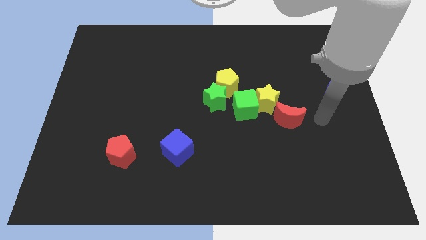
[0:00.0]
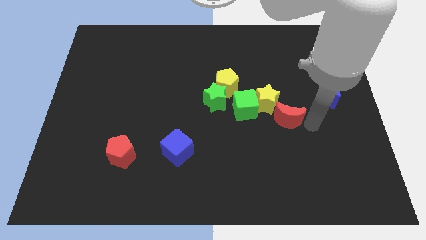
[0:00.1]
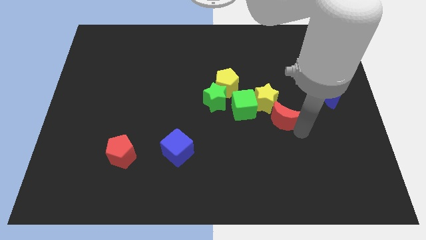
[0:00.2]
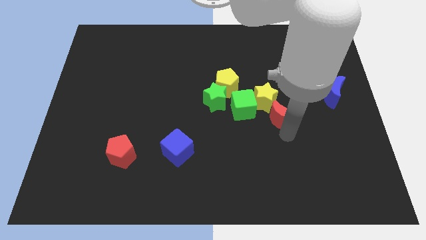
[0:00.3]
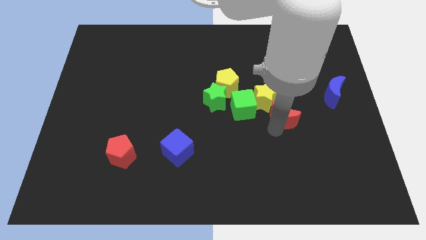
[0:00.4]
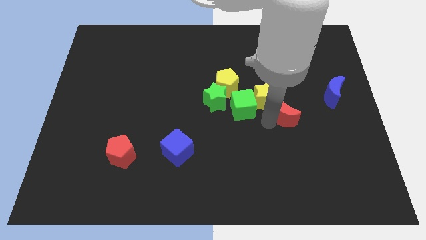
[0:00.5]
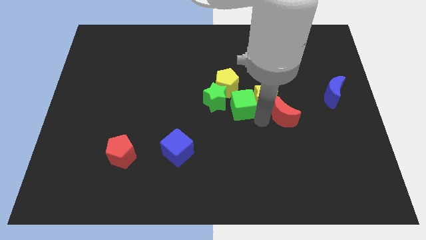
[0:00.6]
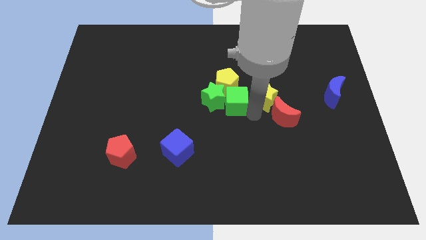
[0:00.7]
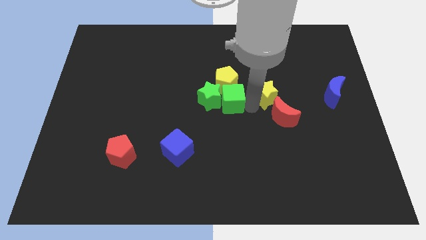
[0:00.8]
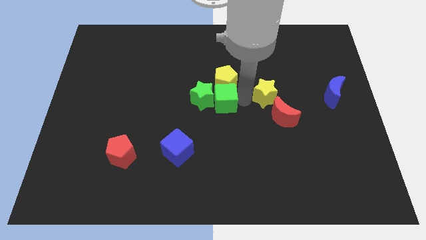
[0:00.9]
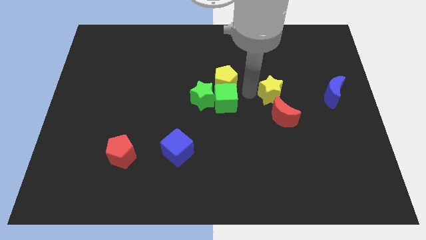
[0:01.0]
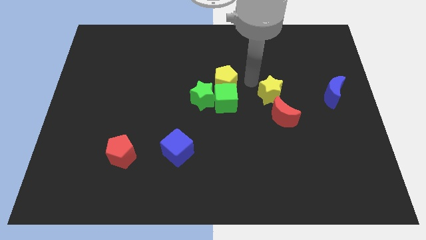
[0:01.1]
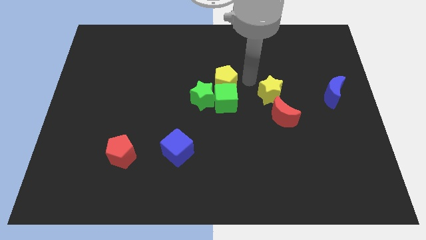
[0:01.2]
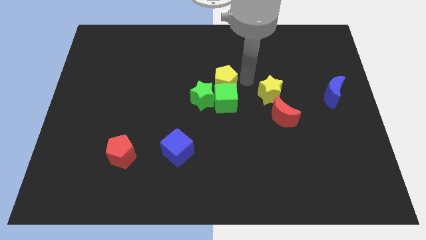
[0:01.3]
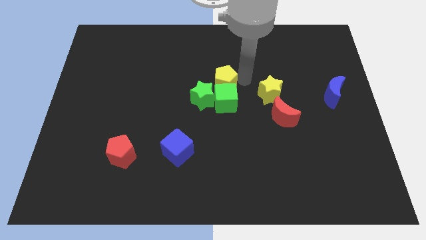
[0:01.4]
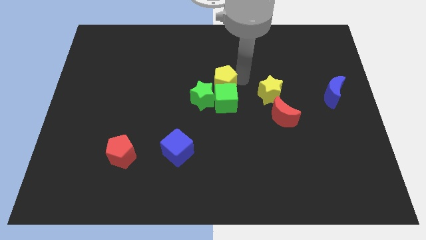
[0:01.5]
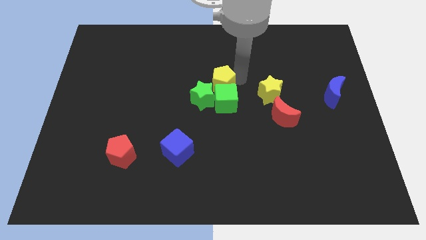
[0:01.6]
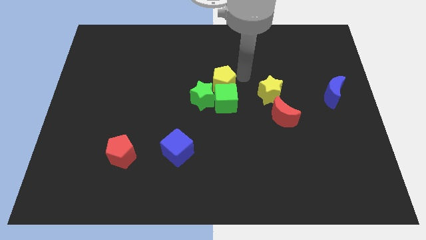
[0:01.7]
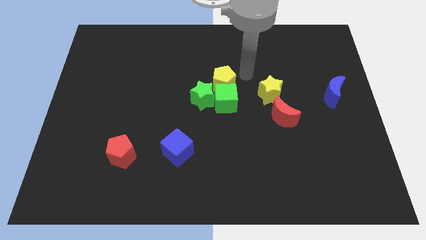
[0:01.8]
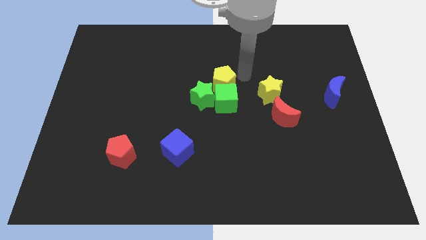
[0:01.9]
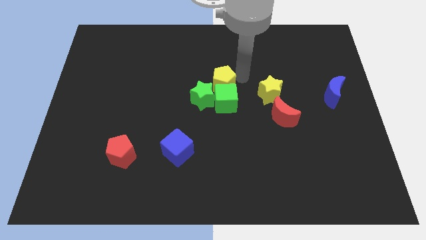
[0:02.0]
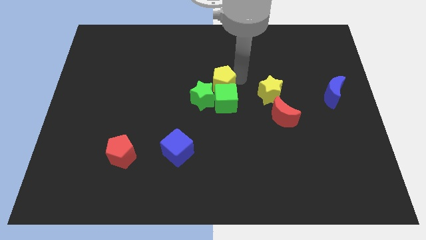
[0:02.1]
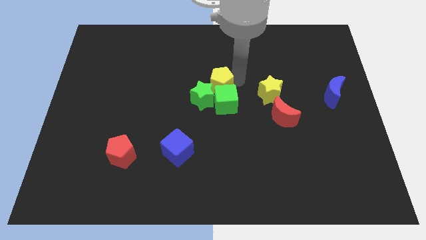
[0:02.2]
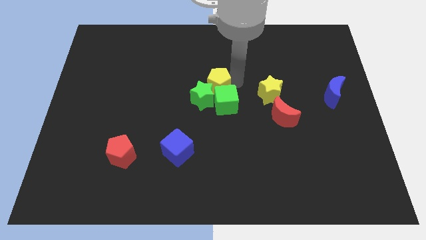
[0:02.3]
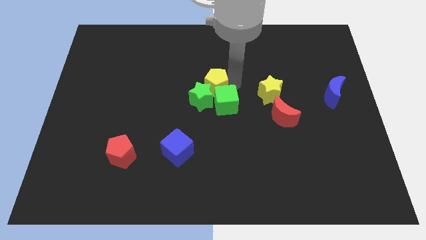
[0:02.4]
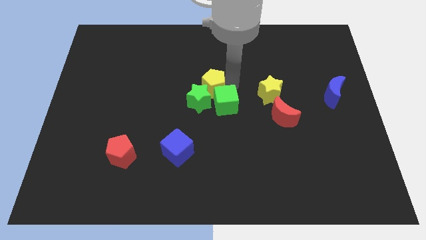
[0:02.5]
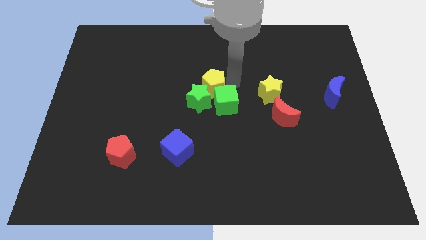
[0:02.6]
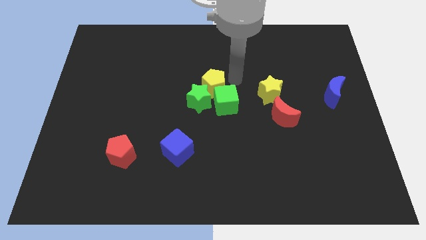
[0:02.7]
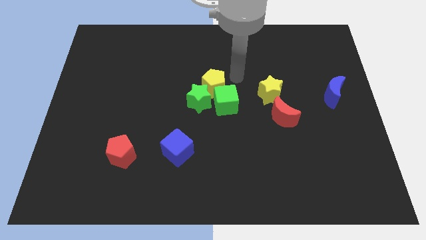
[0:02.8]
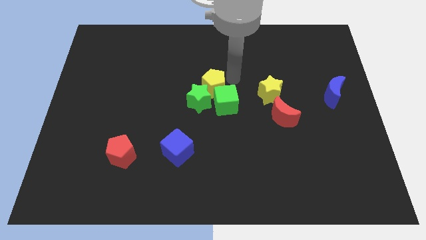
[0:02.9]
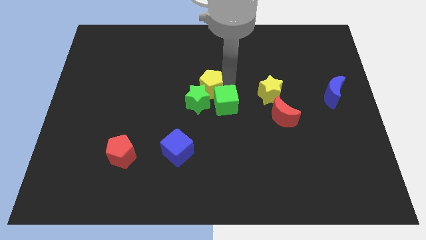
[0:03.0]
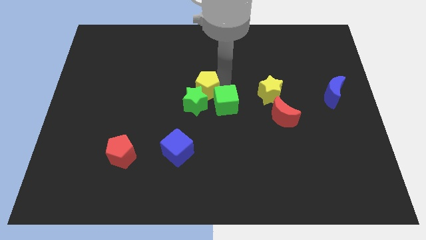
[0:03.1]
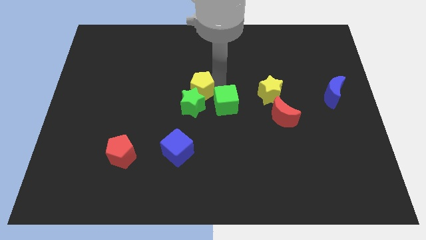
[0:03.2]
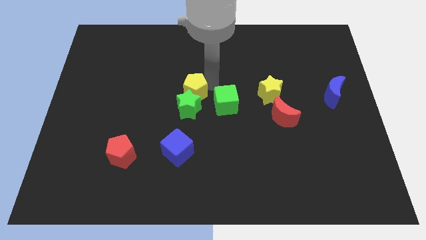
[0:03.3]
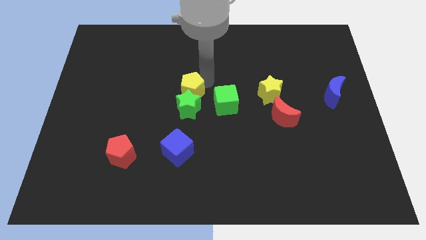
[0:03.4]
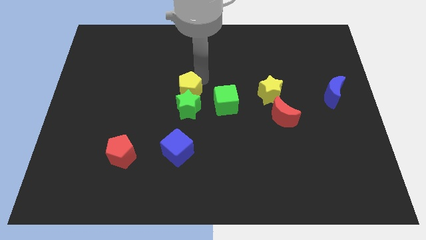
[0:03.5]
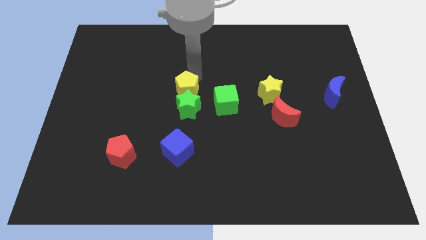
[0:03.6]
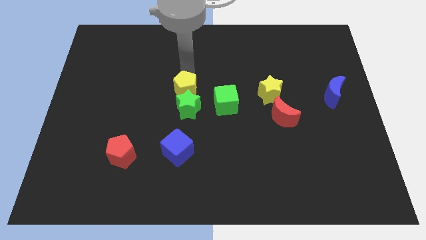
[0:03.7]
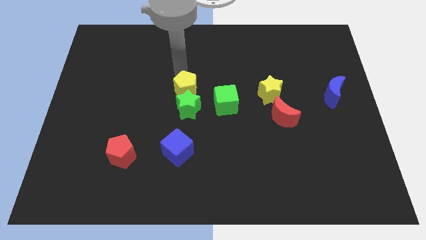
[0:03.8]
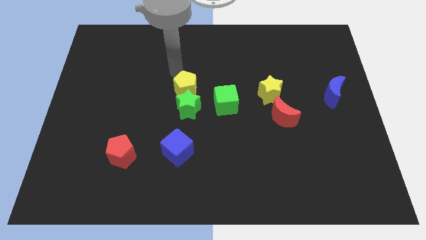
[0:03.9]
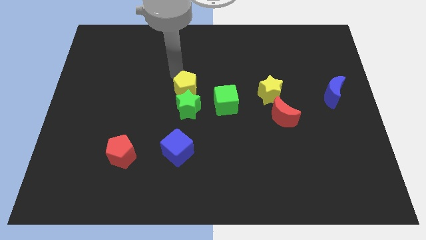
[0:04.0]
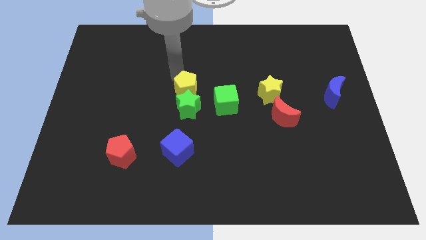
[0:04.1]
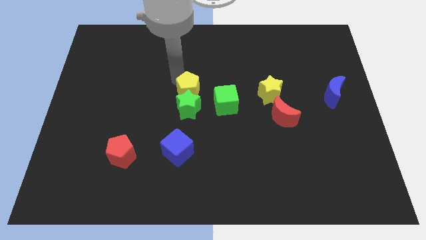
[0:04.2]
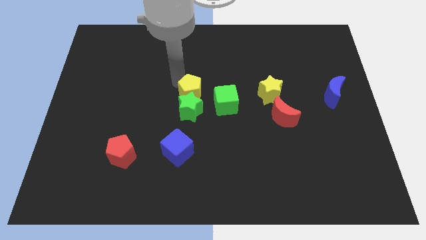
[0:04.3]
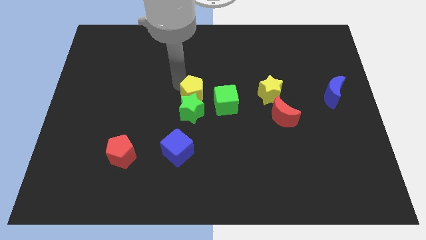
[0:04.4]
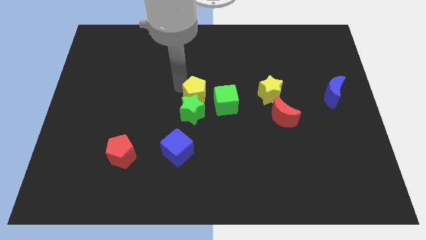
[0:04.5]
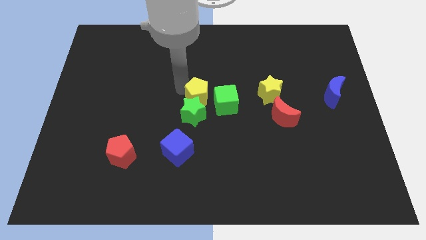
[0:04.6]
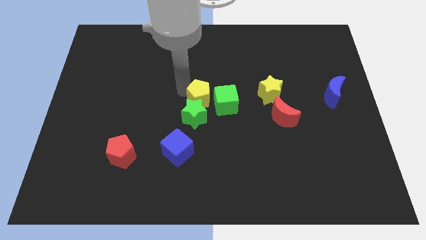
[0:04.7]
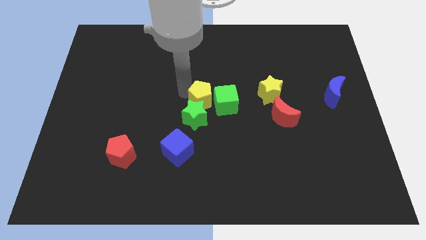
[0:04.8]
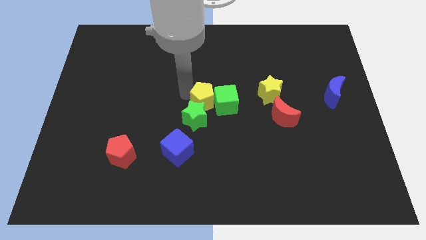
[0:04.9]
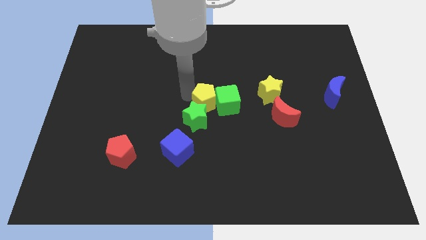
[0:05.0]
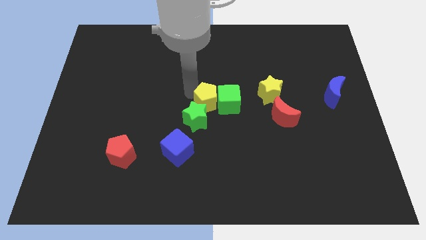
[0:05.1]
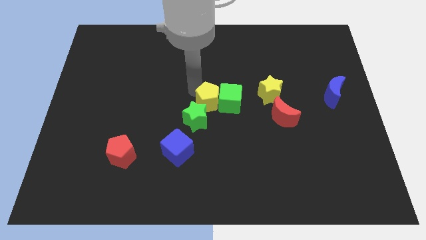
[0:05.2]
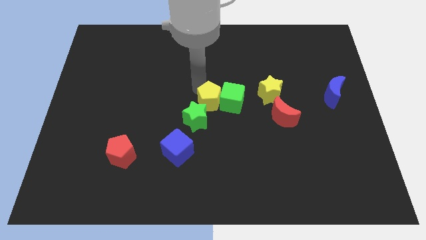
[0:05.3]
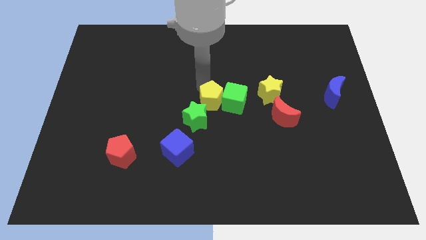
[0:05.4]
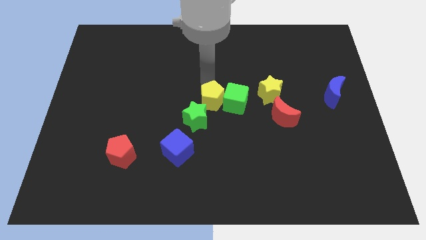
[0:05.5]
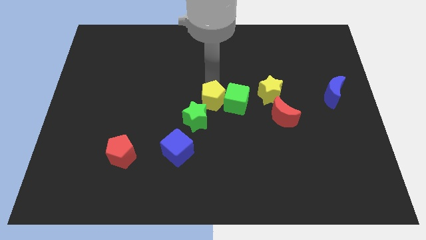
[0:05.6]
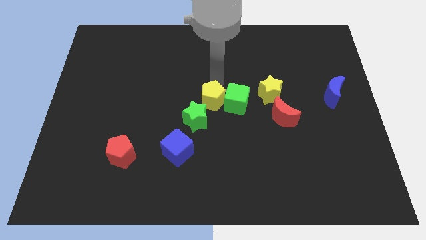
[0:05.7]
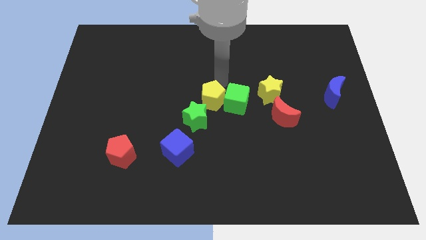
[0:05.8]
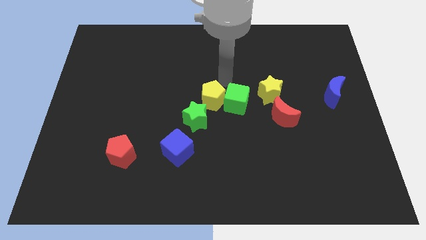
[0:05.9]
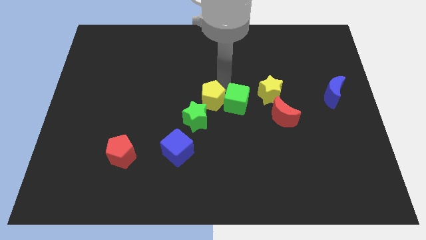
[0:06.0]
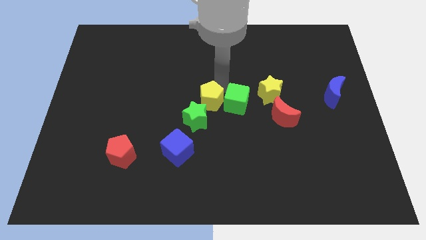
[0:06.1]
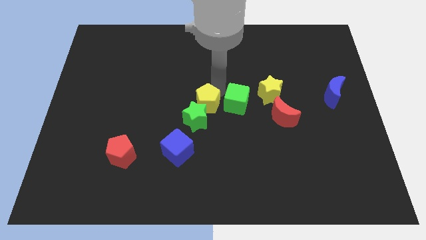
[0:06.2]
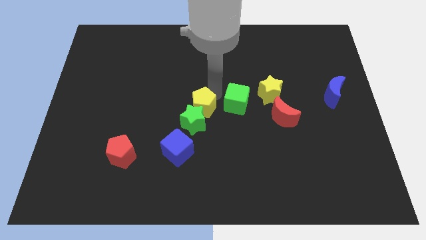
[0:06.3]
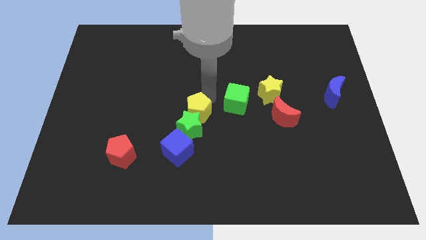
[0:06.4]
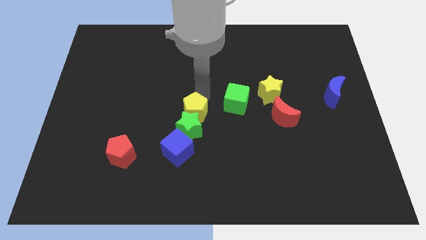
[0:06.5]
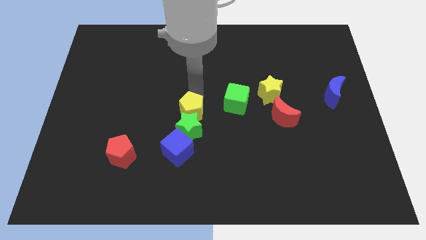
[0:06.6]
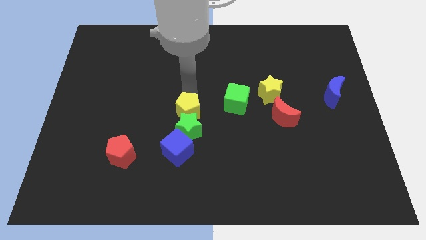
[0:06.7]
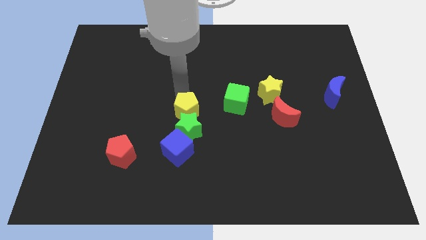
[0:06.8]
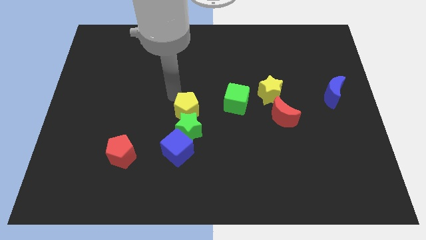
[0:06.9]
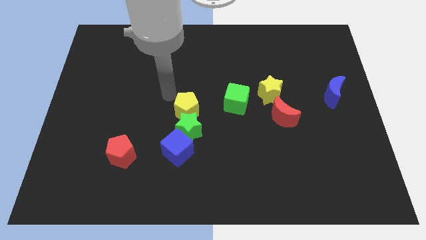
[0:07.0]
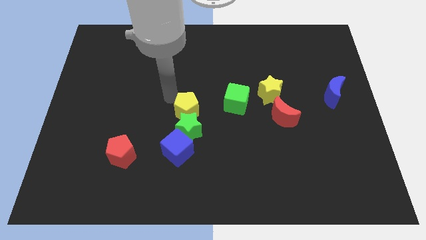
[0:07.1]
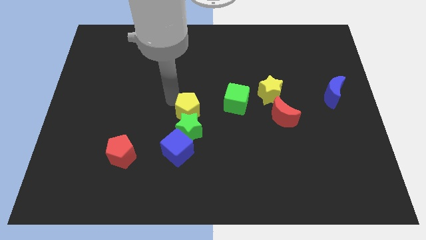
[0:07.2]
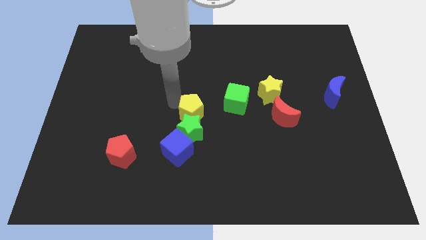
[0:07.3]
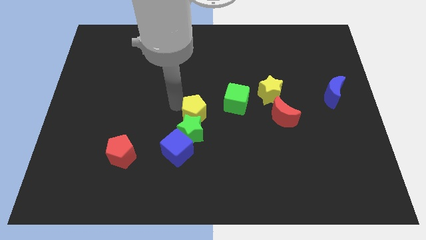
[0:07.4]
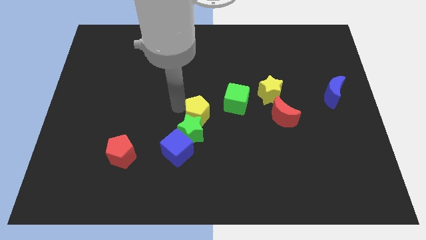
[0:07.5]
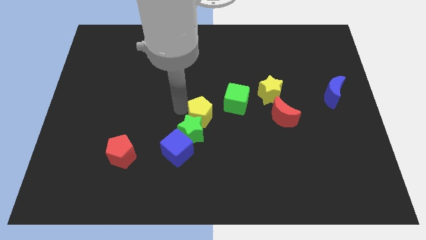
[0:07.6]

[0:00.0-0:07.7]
slightly push the yellow pentagon downwards

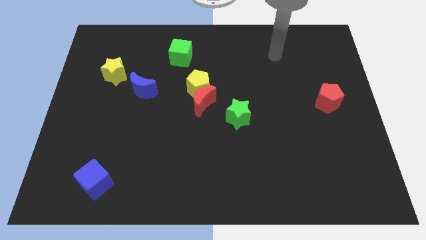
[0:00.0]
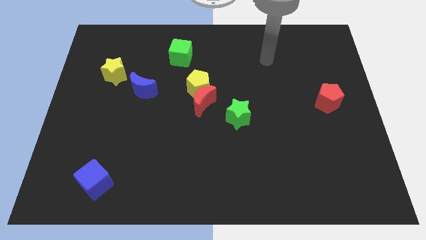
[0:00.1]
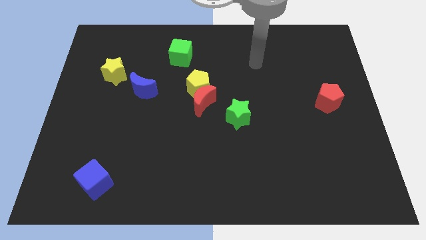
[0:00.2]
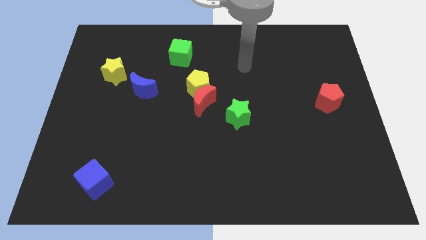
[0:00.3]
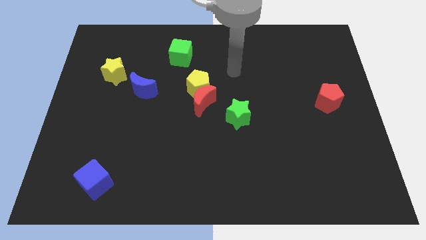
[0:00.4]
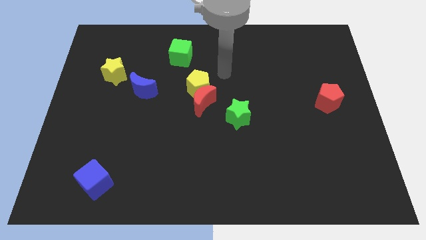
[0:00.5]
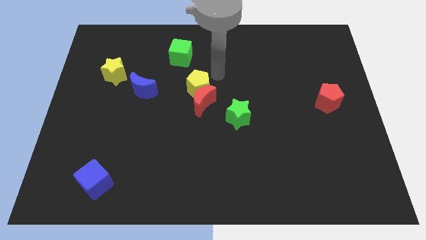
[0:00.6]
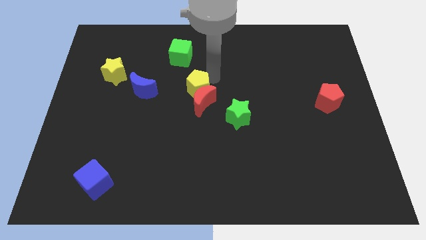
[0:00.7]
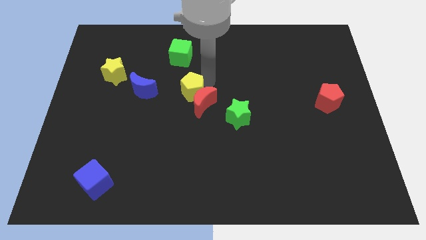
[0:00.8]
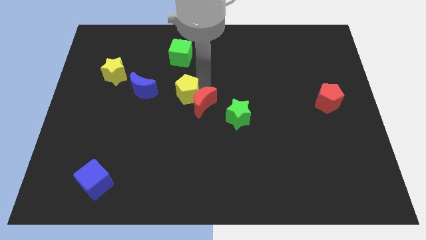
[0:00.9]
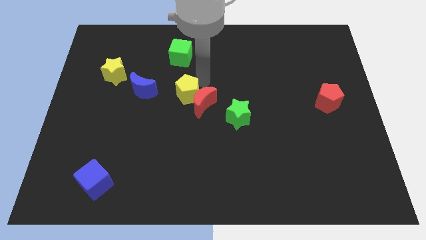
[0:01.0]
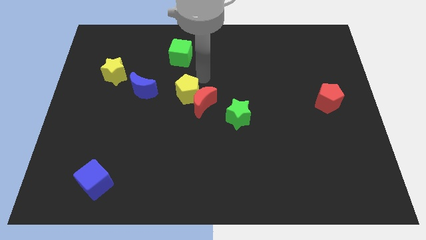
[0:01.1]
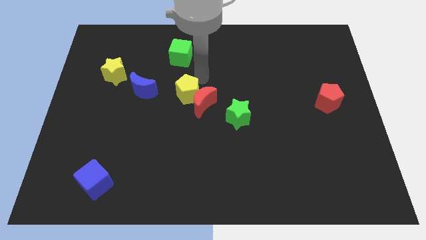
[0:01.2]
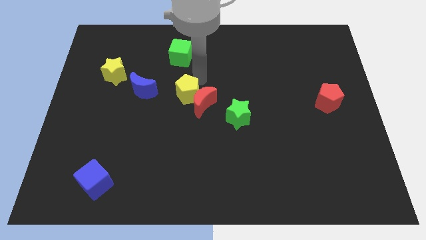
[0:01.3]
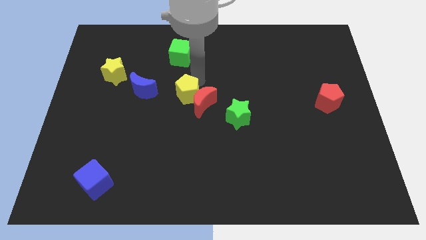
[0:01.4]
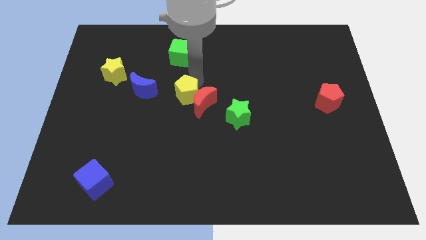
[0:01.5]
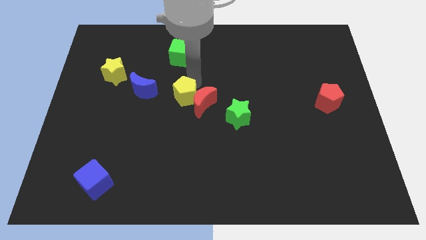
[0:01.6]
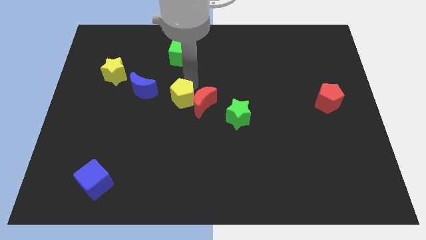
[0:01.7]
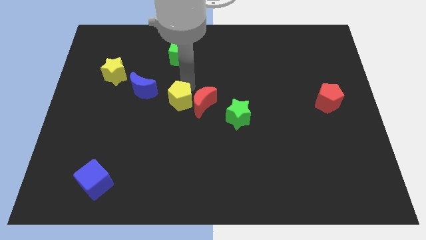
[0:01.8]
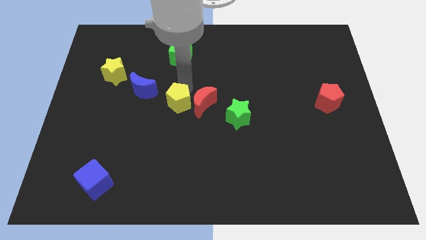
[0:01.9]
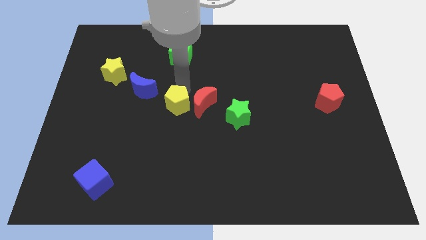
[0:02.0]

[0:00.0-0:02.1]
slightly push the yellow pentagon downwards and to the left
